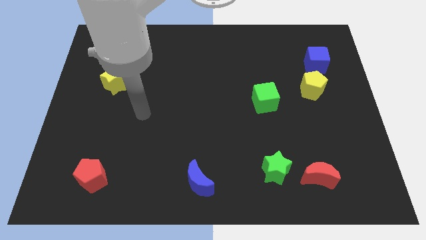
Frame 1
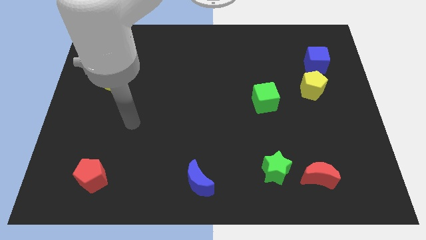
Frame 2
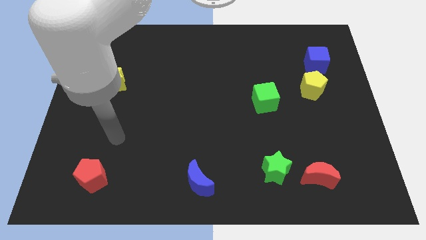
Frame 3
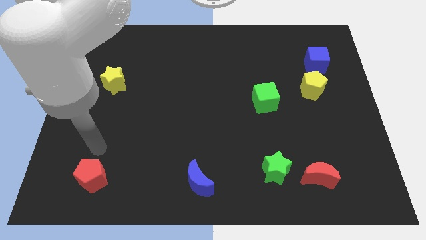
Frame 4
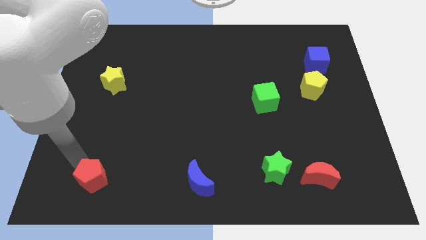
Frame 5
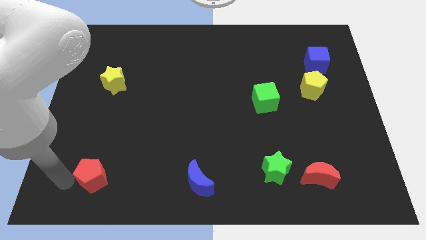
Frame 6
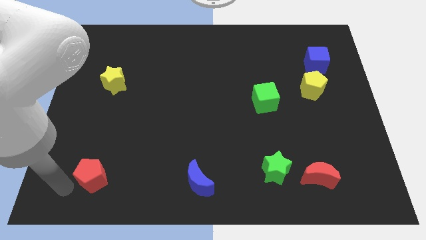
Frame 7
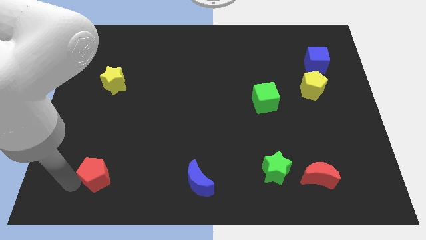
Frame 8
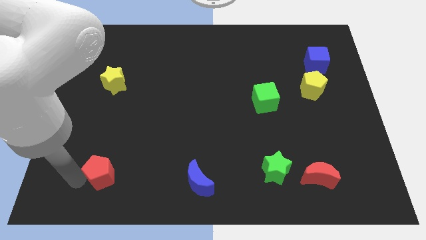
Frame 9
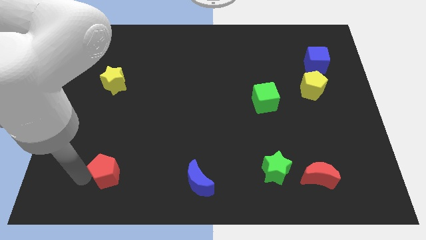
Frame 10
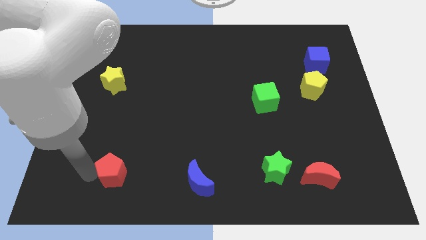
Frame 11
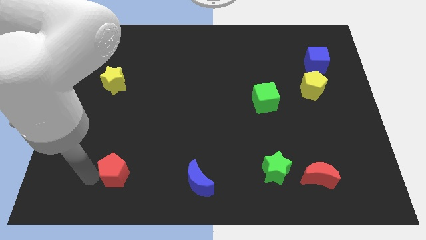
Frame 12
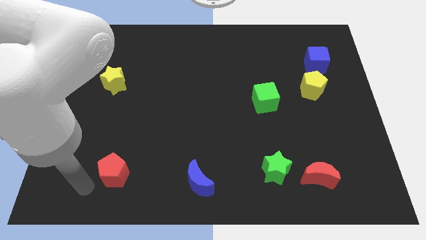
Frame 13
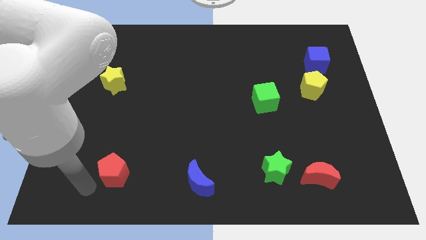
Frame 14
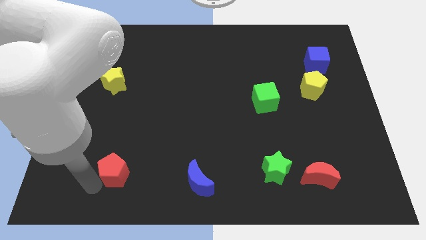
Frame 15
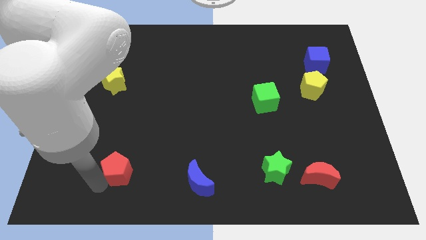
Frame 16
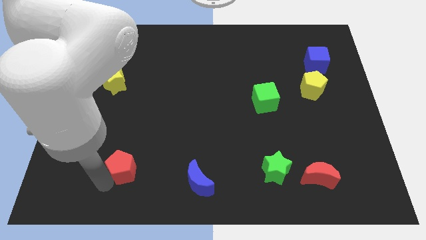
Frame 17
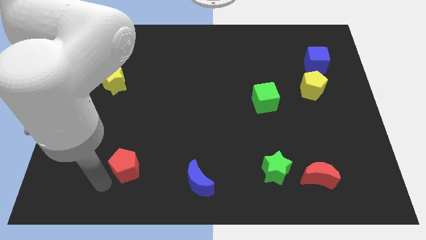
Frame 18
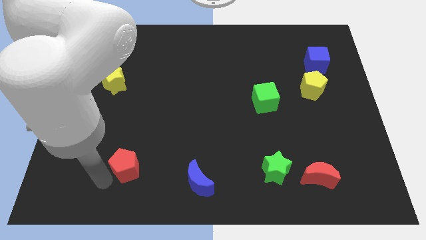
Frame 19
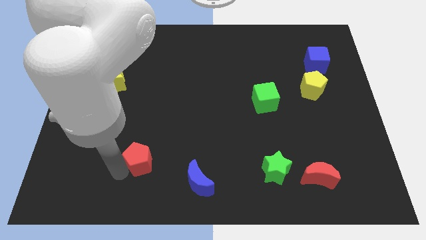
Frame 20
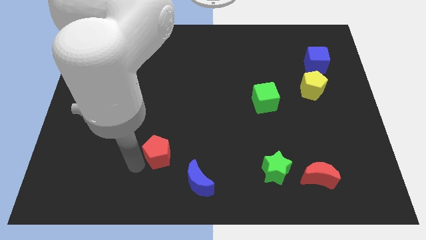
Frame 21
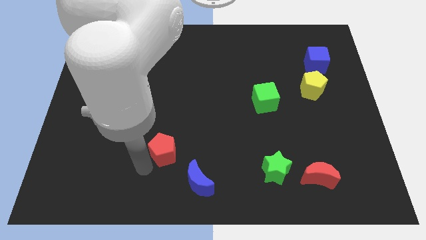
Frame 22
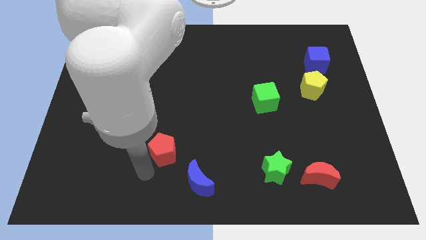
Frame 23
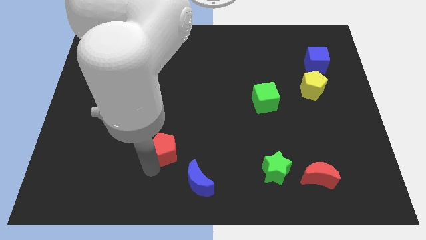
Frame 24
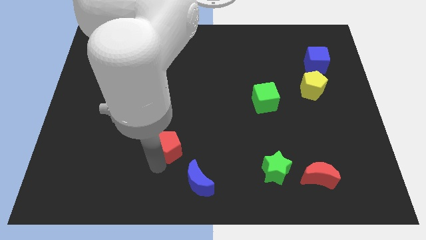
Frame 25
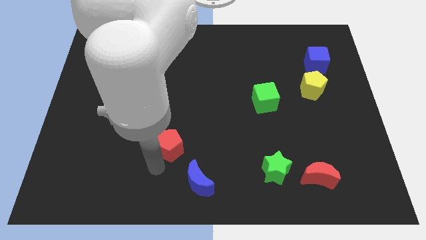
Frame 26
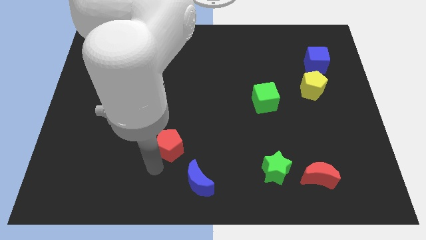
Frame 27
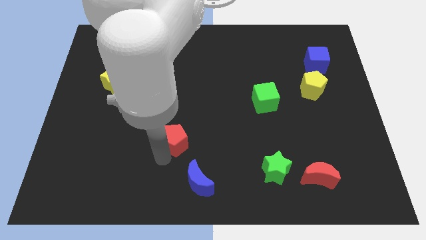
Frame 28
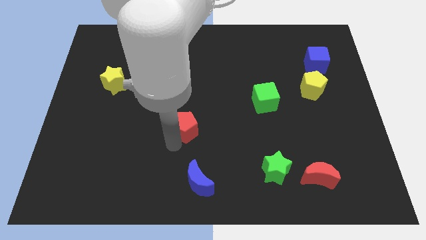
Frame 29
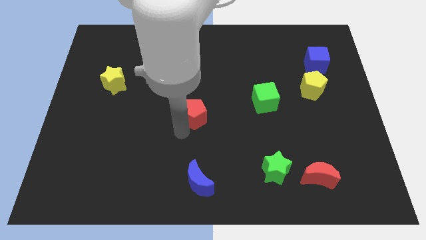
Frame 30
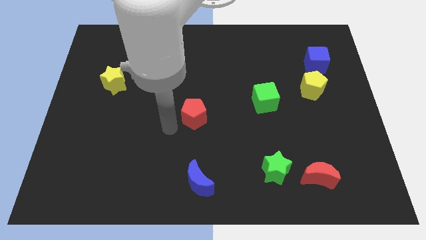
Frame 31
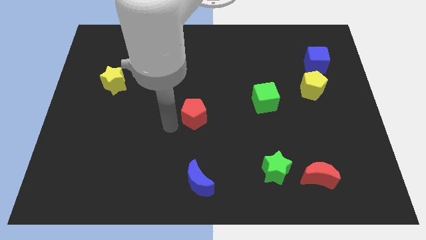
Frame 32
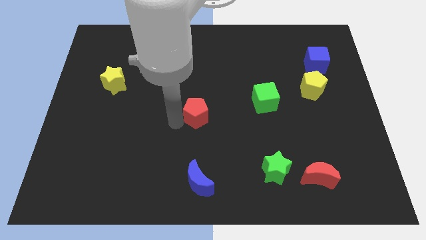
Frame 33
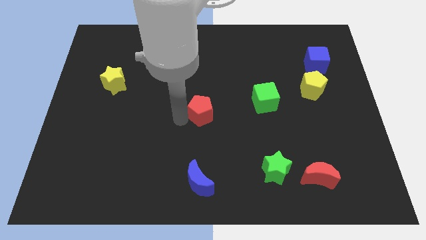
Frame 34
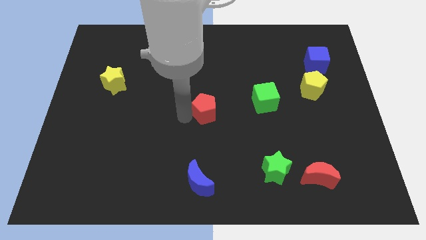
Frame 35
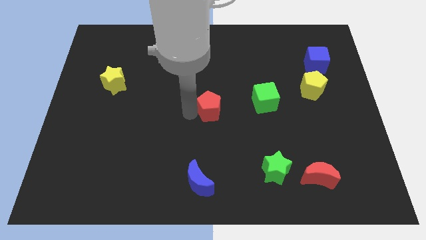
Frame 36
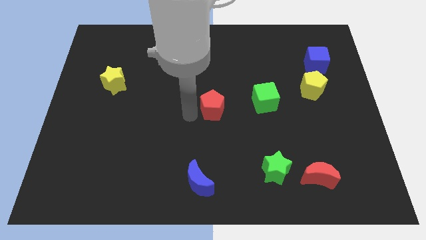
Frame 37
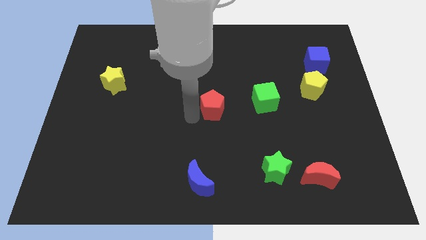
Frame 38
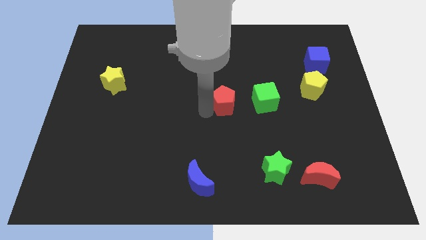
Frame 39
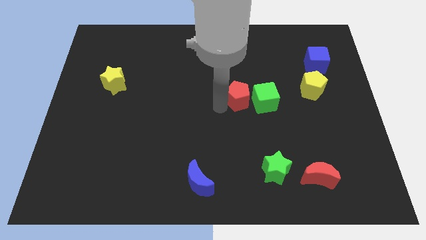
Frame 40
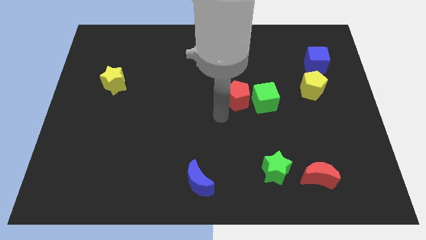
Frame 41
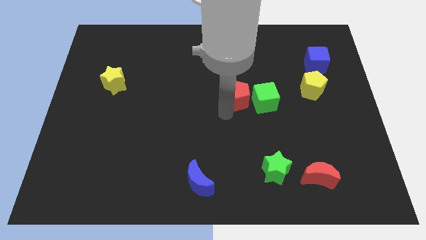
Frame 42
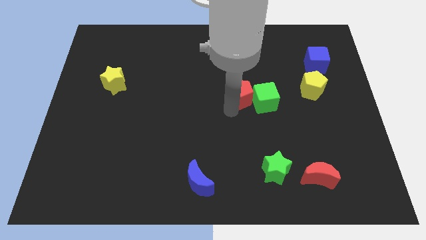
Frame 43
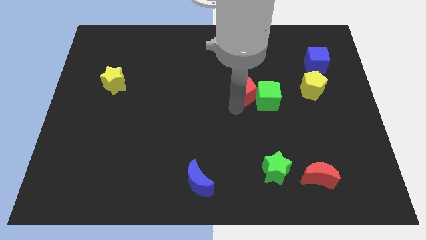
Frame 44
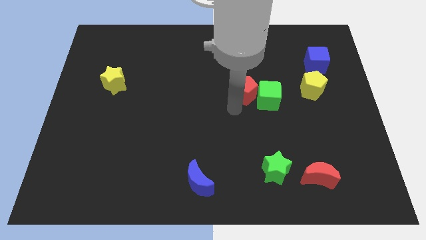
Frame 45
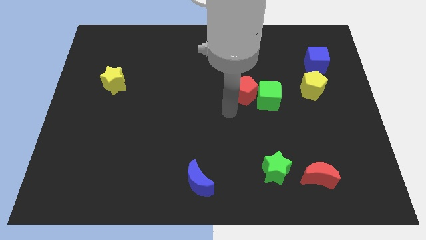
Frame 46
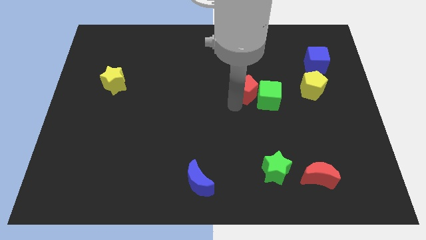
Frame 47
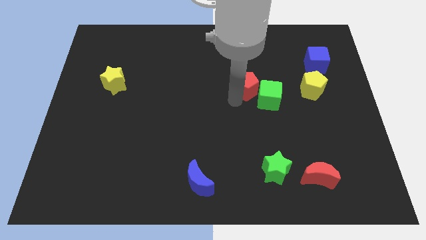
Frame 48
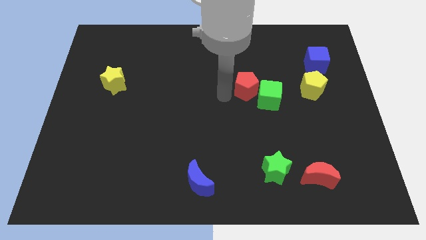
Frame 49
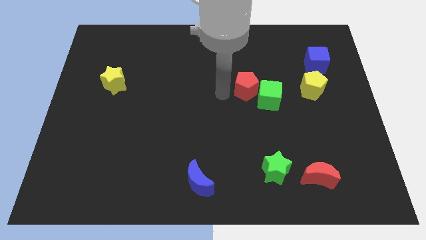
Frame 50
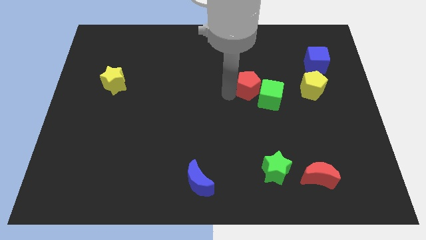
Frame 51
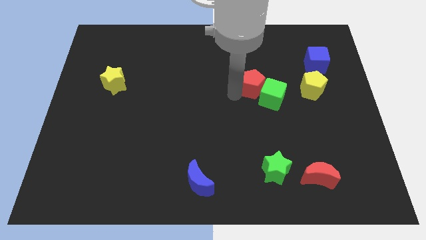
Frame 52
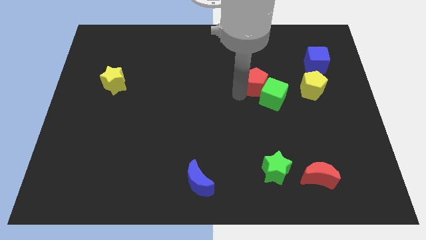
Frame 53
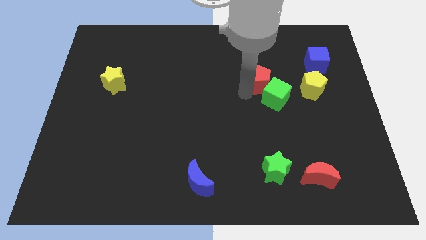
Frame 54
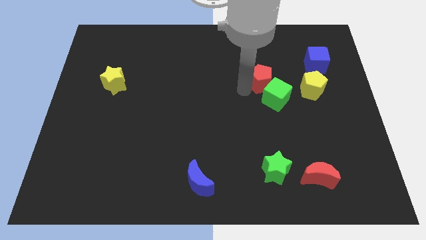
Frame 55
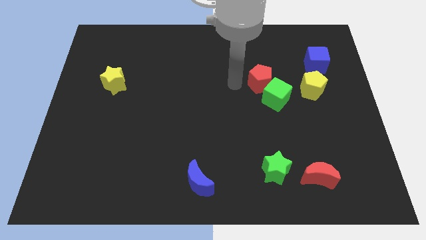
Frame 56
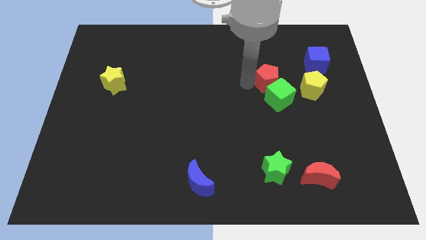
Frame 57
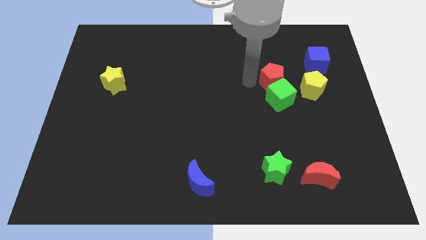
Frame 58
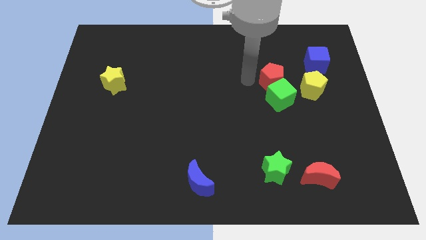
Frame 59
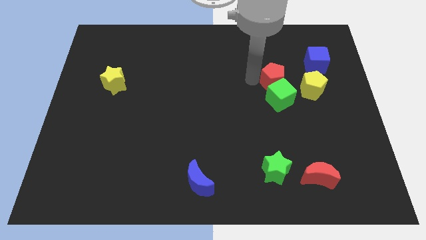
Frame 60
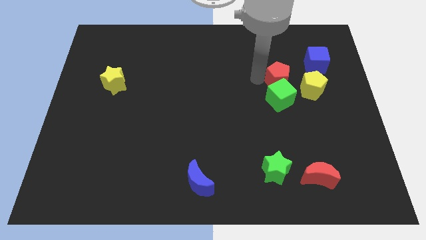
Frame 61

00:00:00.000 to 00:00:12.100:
move the red pentagon to the bottom left of the blue cube

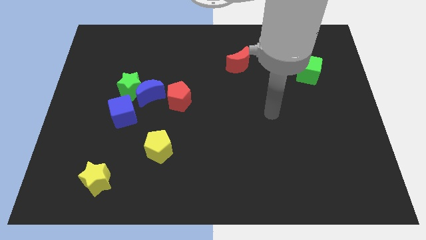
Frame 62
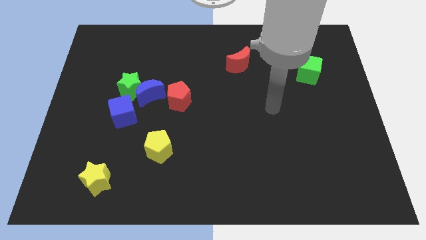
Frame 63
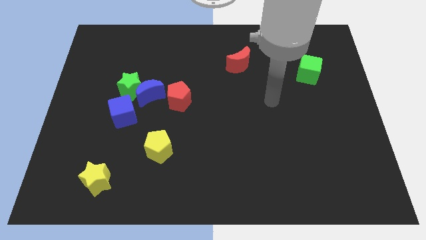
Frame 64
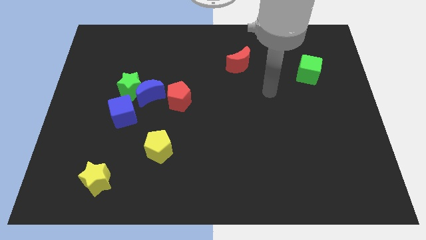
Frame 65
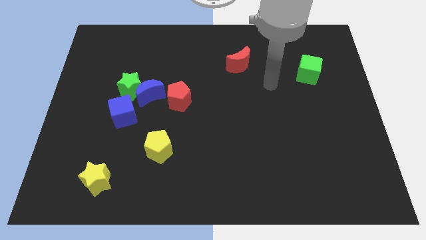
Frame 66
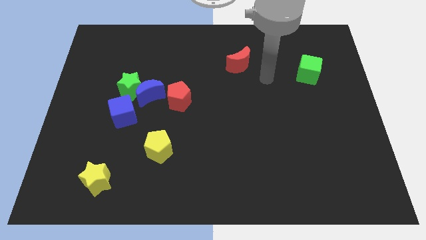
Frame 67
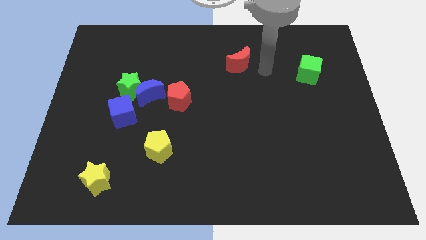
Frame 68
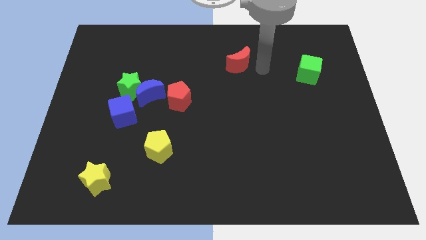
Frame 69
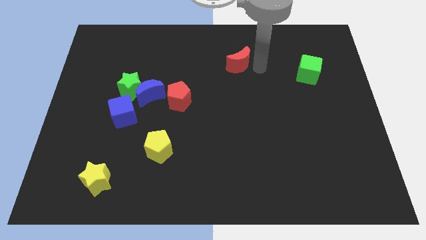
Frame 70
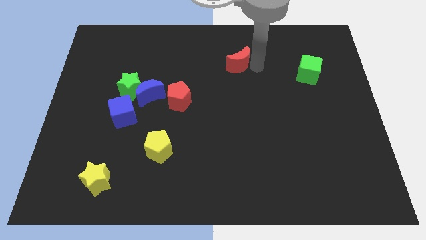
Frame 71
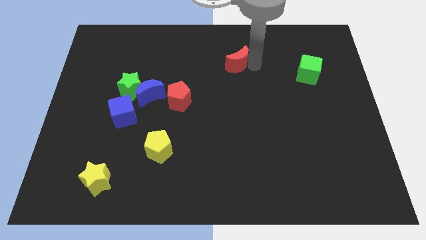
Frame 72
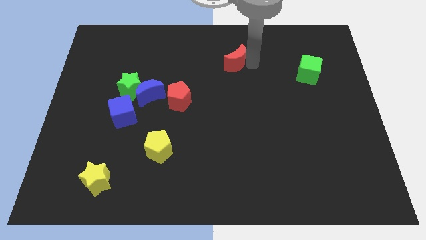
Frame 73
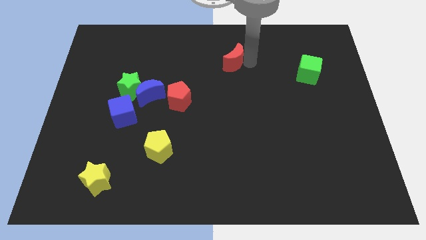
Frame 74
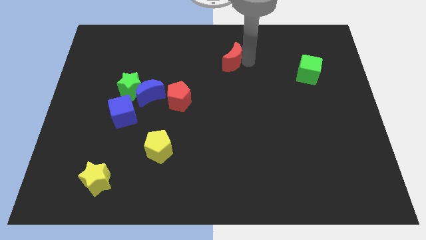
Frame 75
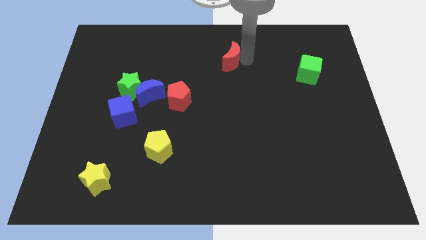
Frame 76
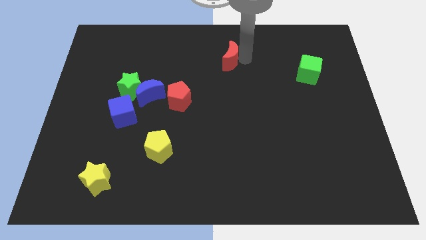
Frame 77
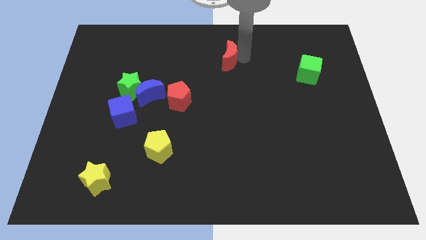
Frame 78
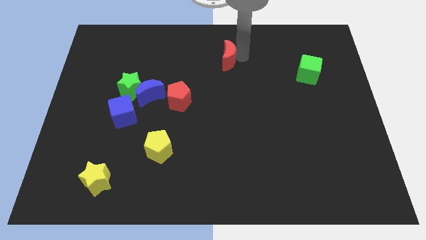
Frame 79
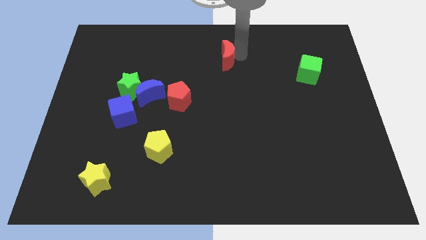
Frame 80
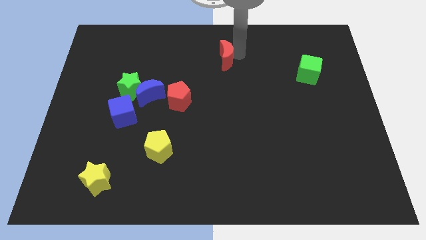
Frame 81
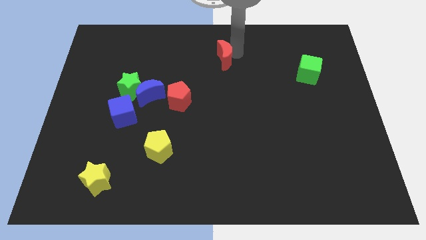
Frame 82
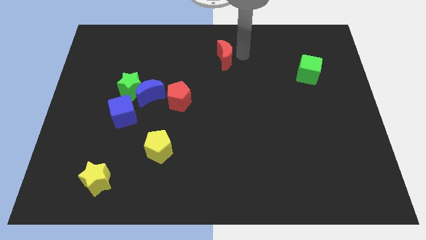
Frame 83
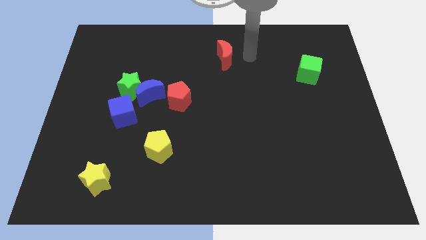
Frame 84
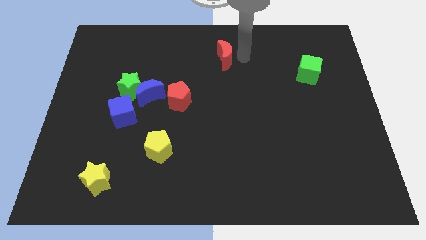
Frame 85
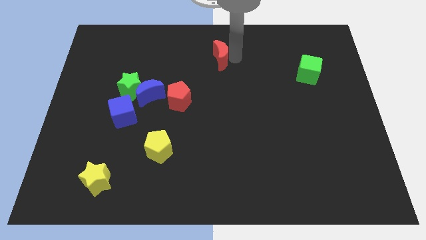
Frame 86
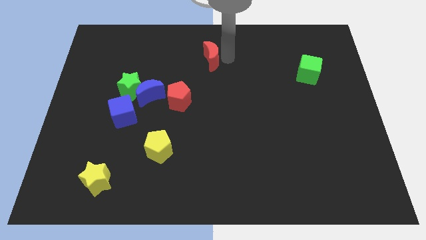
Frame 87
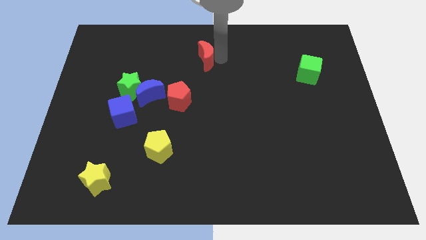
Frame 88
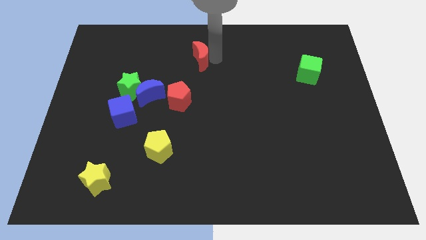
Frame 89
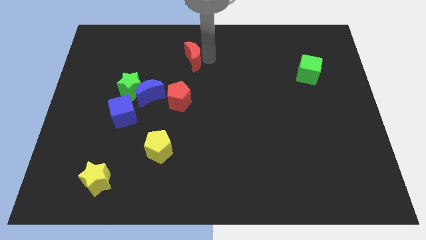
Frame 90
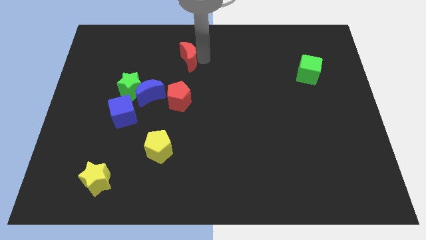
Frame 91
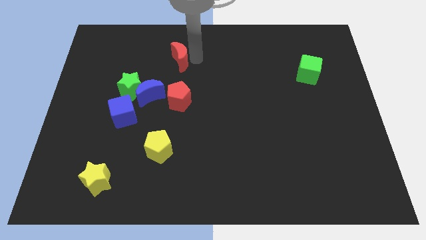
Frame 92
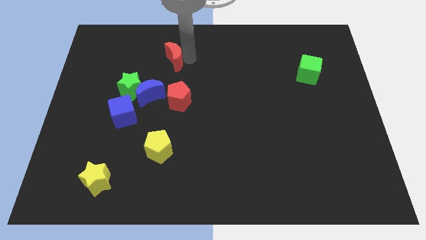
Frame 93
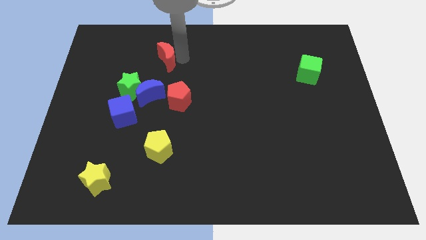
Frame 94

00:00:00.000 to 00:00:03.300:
move the red moon to the top of the blue moon
